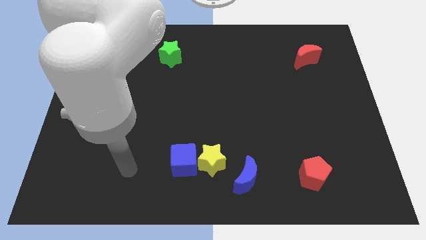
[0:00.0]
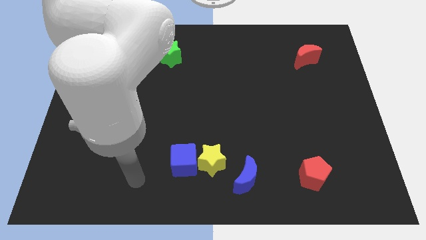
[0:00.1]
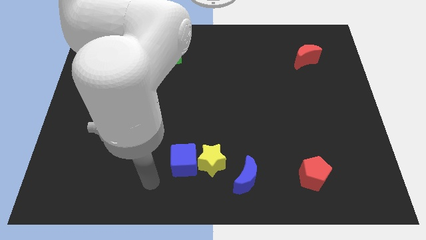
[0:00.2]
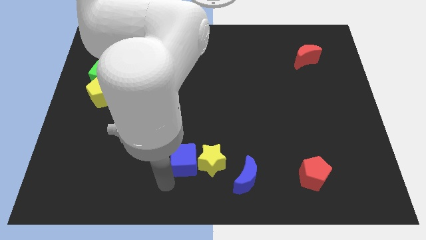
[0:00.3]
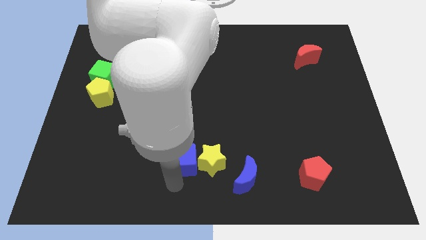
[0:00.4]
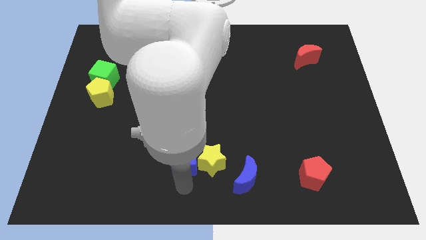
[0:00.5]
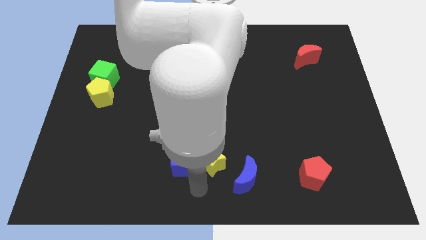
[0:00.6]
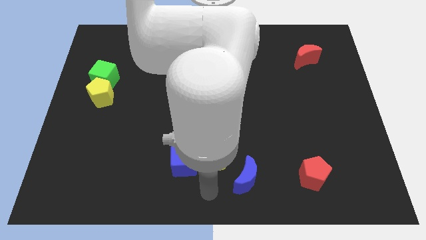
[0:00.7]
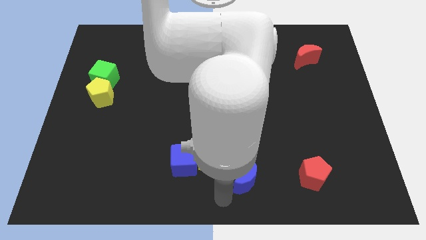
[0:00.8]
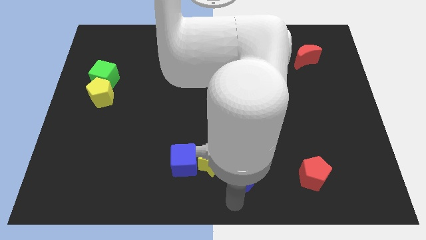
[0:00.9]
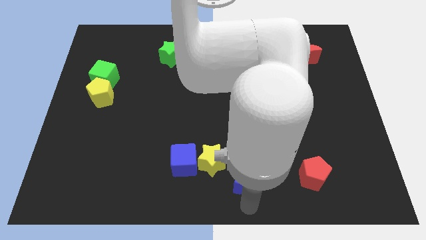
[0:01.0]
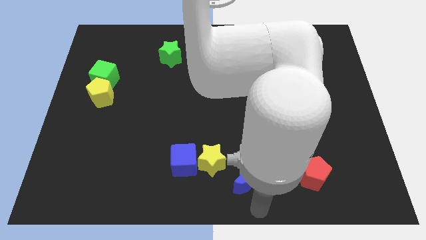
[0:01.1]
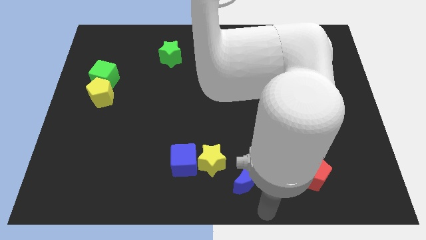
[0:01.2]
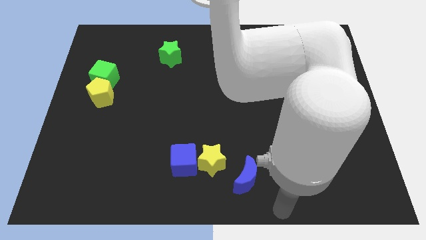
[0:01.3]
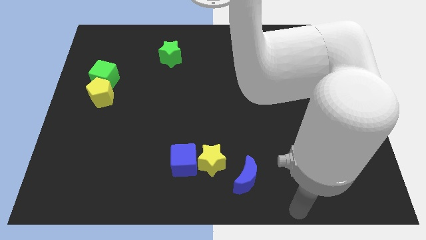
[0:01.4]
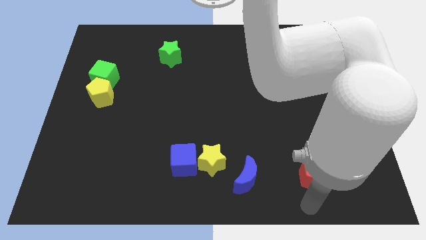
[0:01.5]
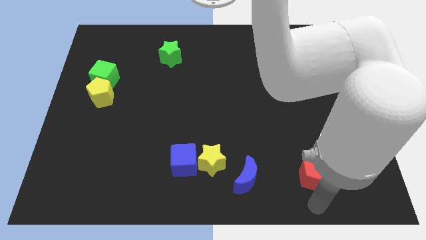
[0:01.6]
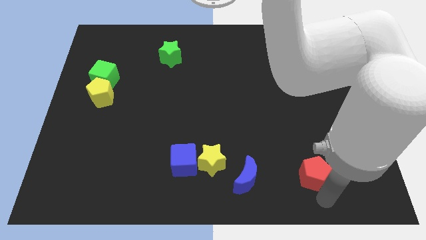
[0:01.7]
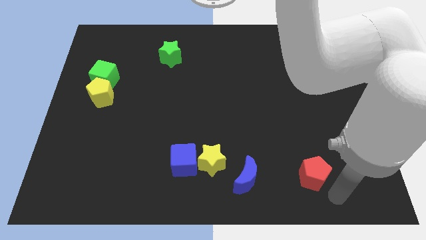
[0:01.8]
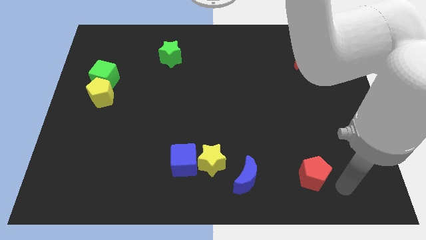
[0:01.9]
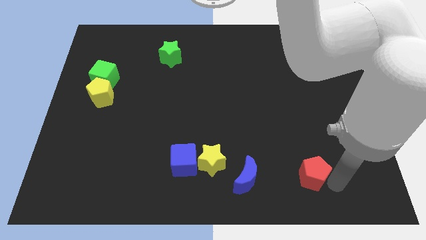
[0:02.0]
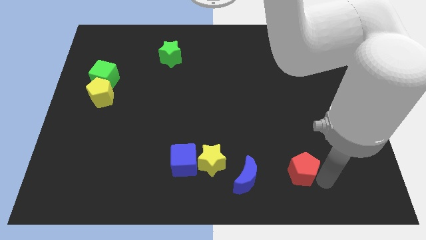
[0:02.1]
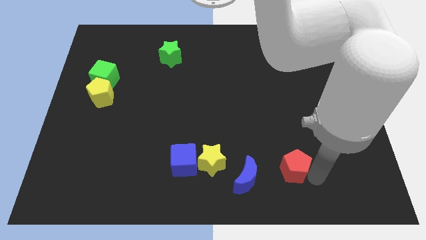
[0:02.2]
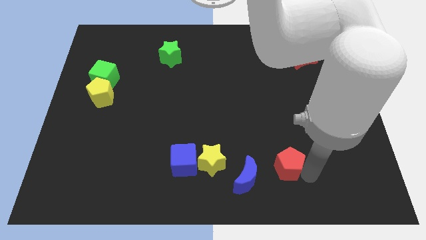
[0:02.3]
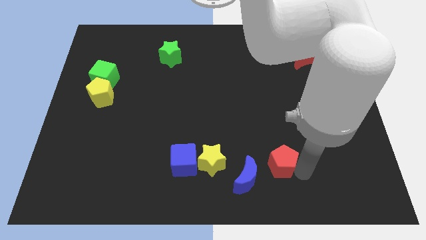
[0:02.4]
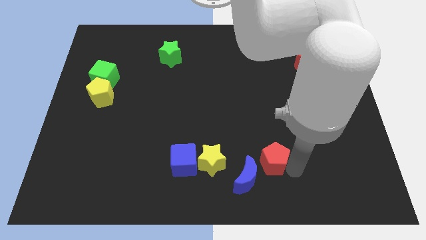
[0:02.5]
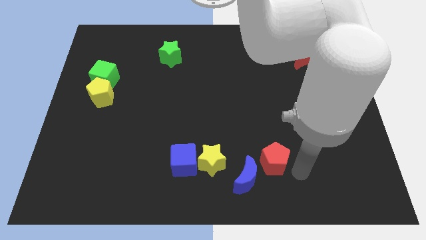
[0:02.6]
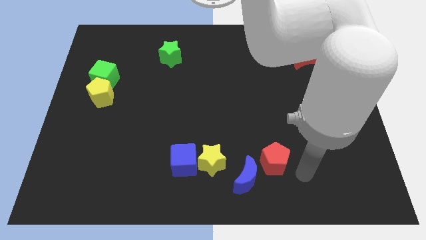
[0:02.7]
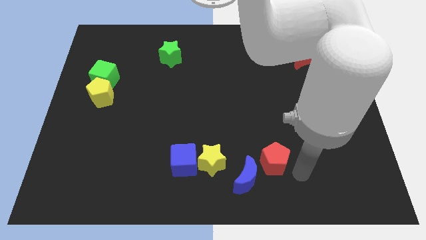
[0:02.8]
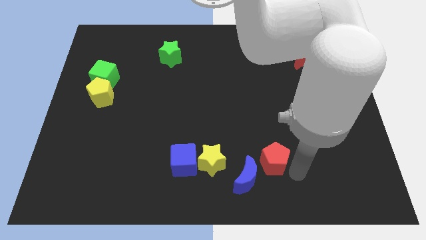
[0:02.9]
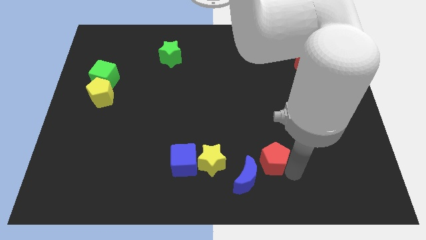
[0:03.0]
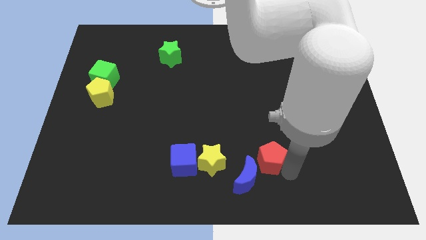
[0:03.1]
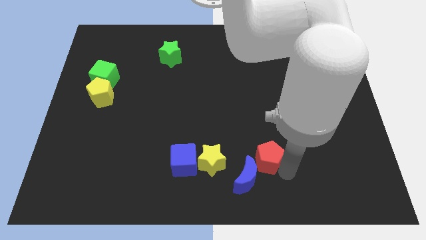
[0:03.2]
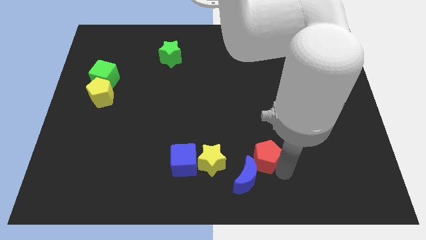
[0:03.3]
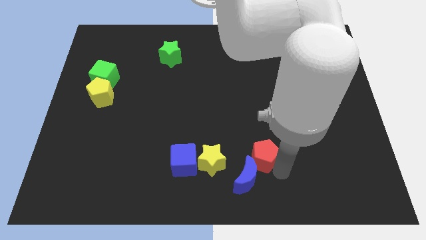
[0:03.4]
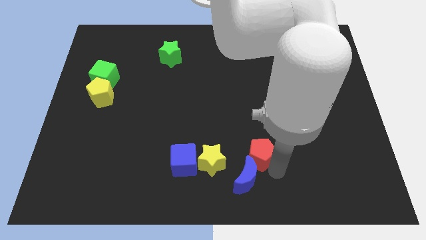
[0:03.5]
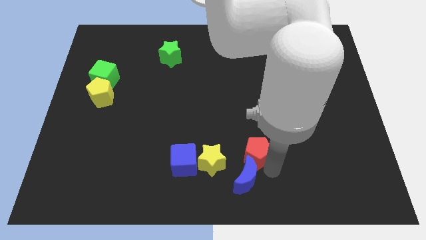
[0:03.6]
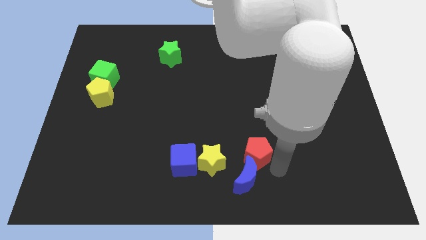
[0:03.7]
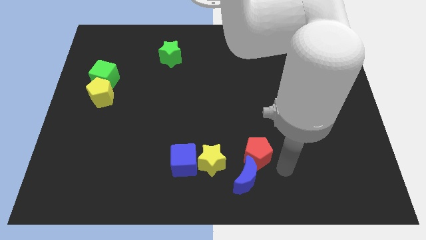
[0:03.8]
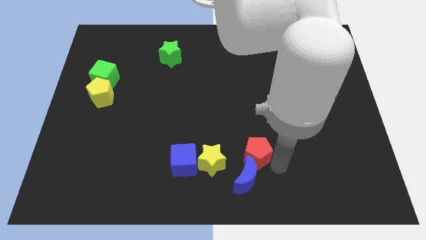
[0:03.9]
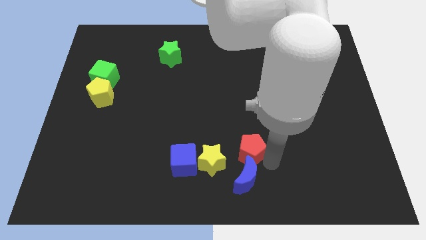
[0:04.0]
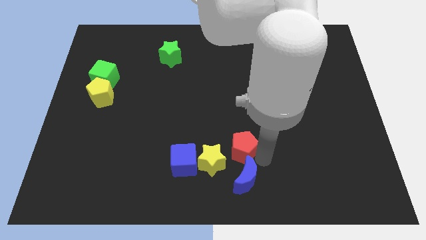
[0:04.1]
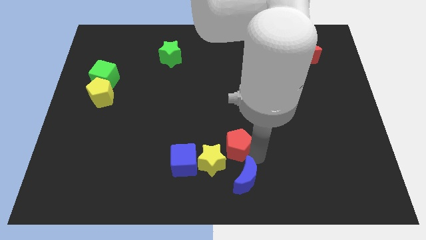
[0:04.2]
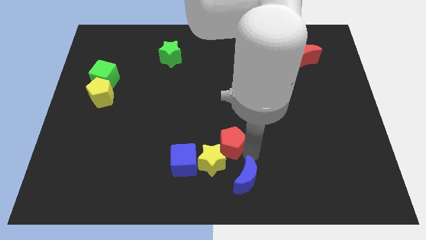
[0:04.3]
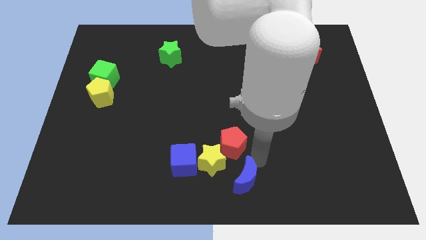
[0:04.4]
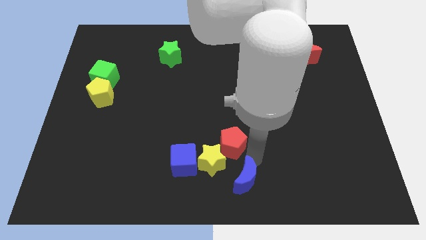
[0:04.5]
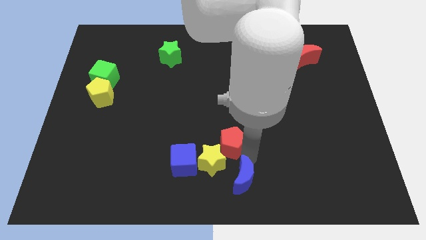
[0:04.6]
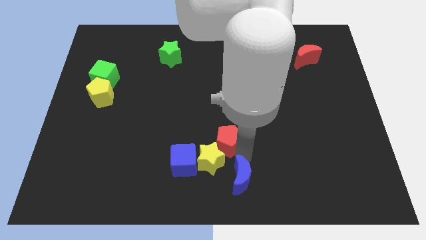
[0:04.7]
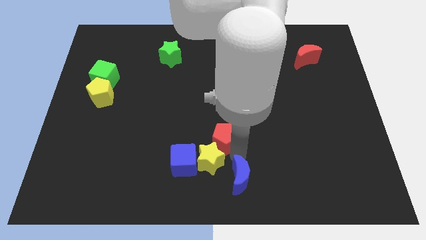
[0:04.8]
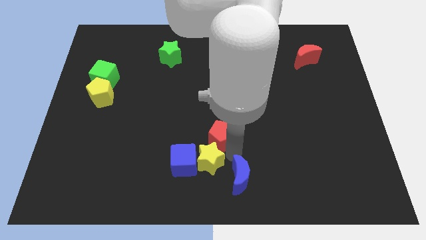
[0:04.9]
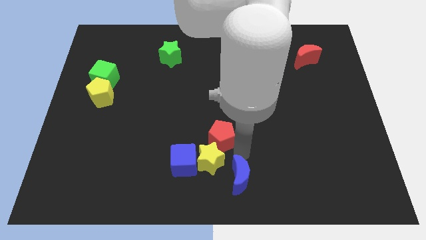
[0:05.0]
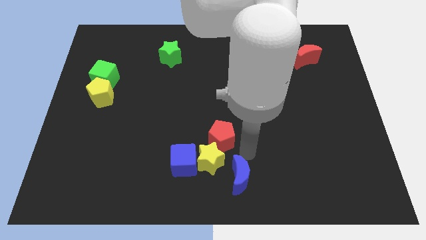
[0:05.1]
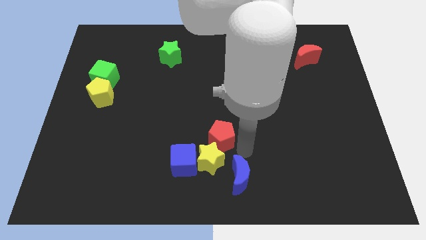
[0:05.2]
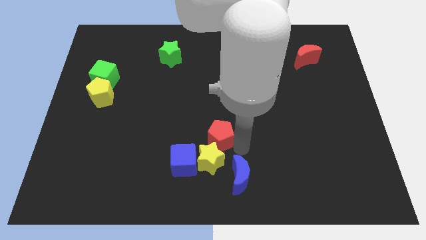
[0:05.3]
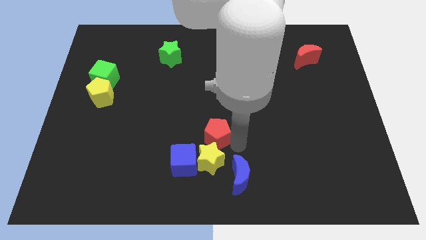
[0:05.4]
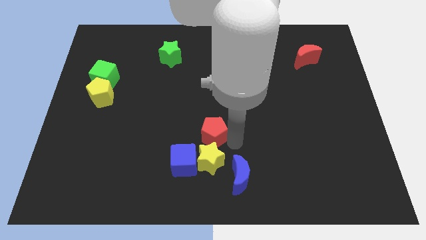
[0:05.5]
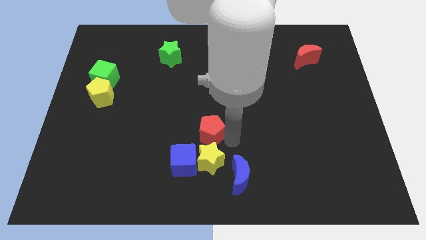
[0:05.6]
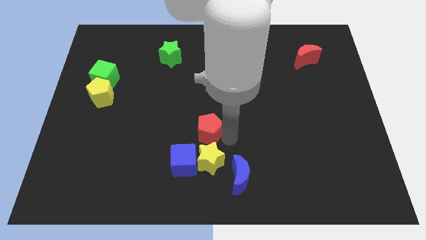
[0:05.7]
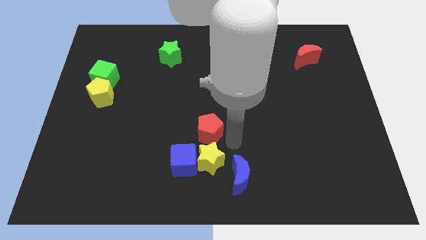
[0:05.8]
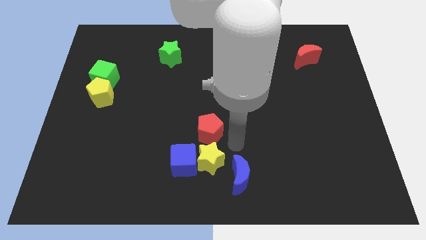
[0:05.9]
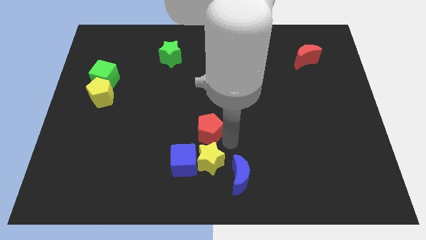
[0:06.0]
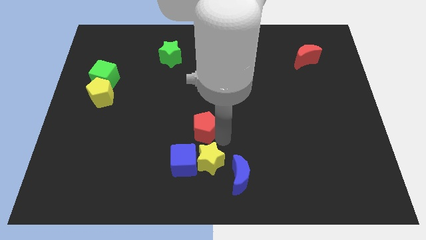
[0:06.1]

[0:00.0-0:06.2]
push the red pentagon above the blue cube

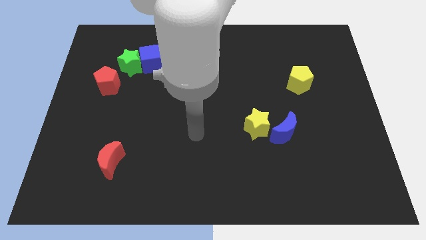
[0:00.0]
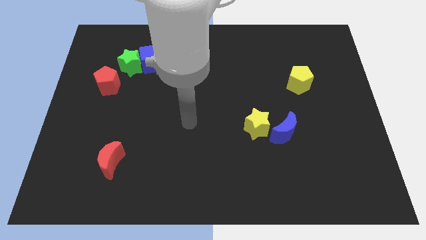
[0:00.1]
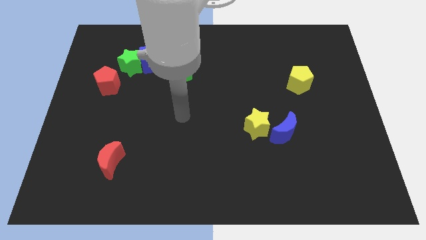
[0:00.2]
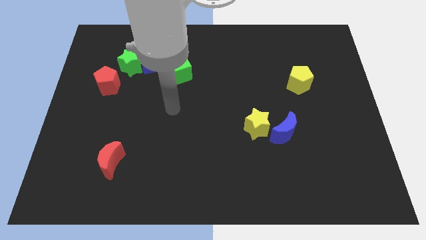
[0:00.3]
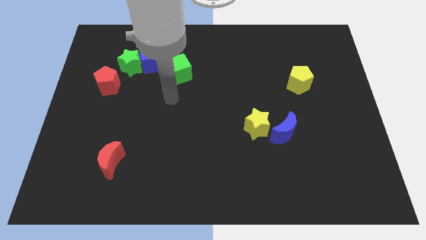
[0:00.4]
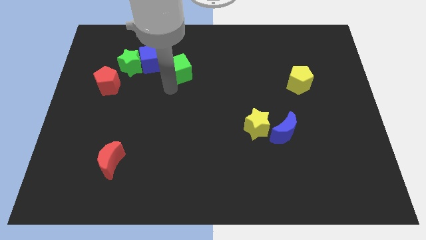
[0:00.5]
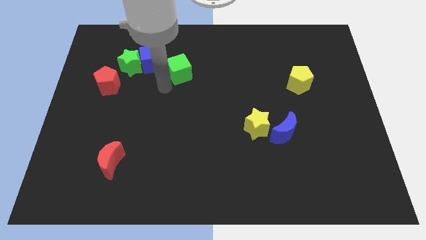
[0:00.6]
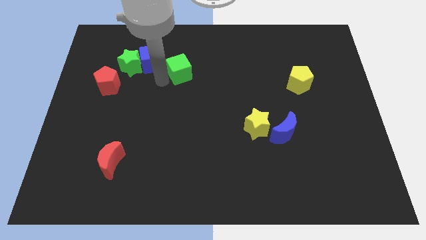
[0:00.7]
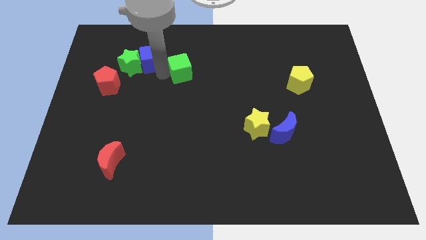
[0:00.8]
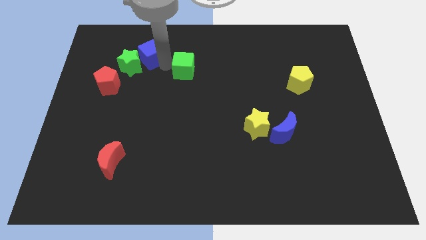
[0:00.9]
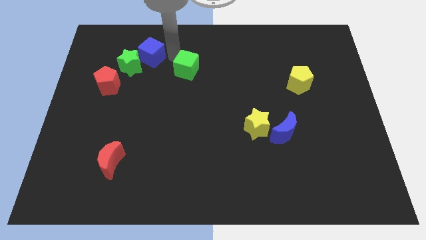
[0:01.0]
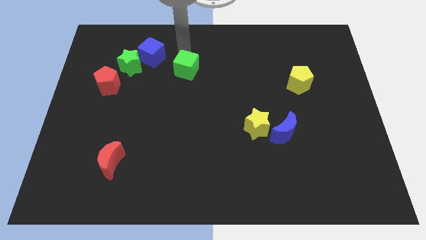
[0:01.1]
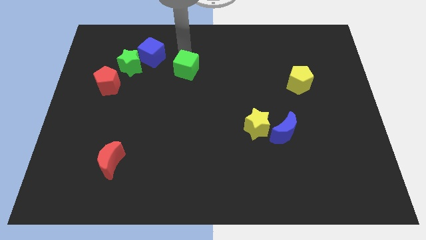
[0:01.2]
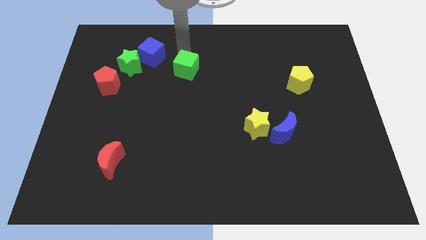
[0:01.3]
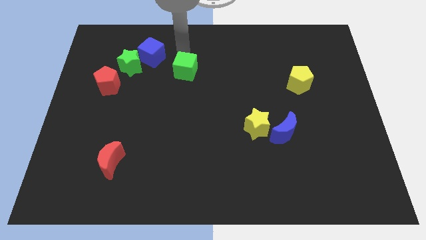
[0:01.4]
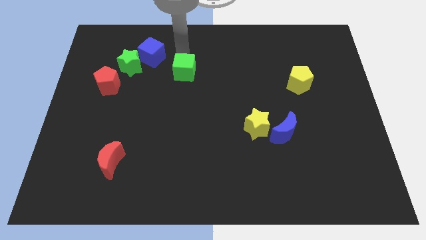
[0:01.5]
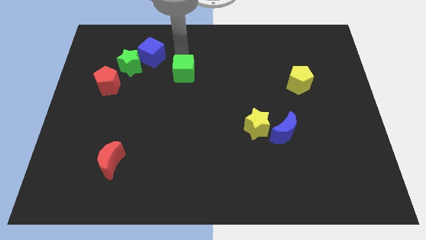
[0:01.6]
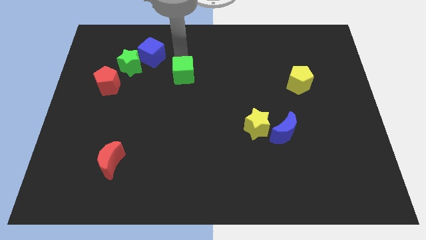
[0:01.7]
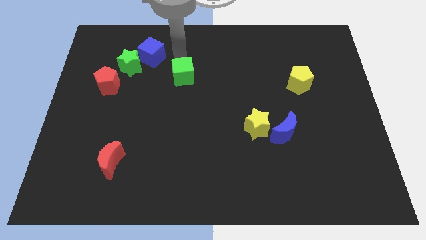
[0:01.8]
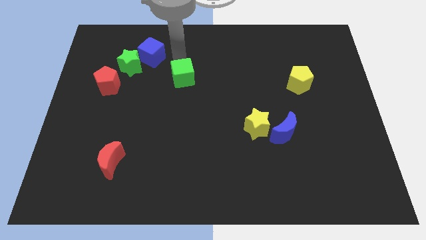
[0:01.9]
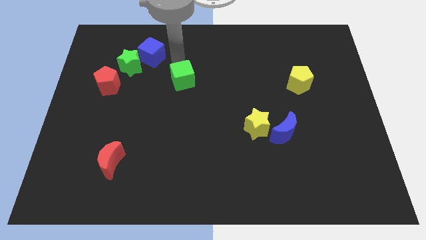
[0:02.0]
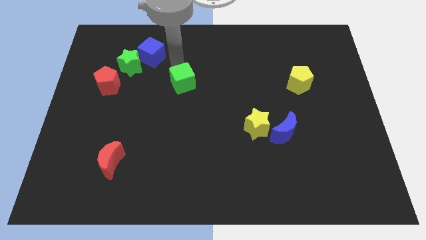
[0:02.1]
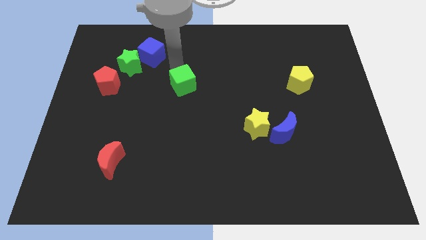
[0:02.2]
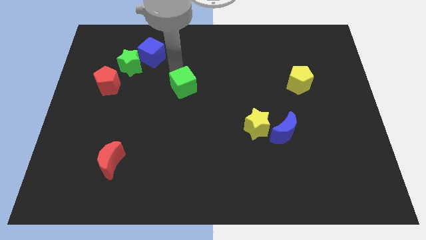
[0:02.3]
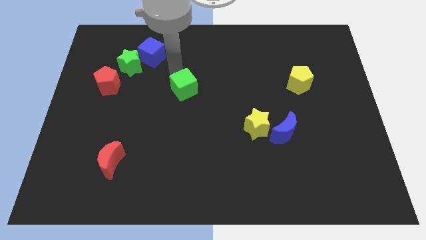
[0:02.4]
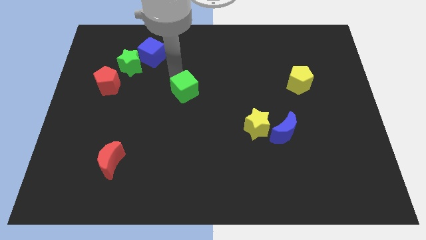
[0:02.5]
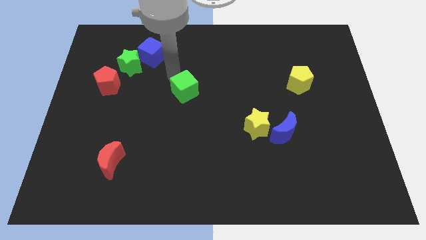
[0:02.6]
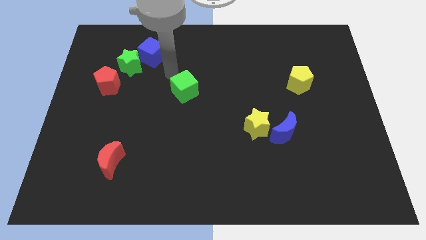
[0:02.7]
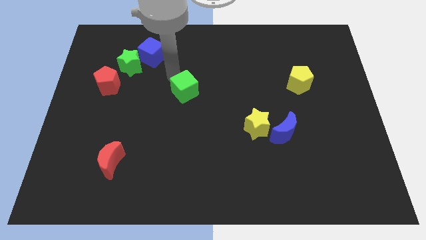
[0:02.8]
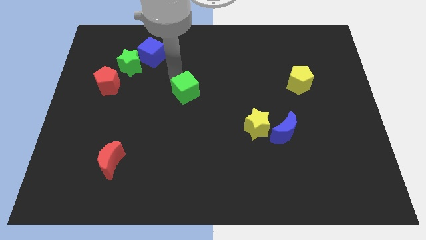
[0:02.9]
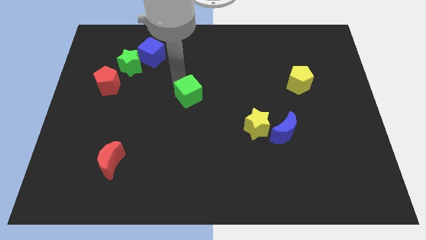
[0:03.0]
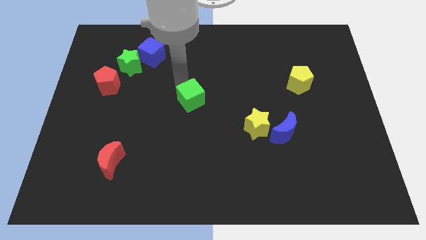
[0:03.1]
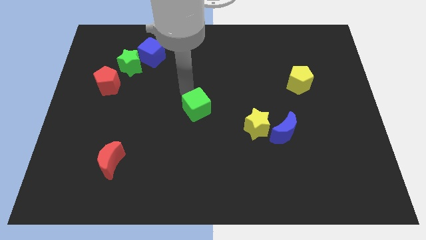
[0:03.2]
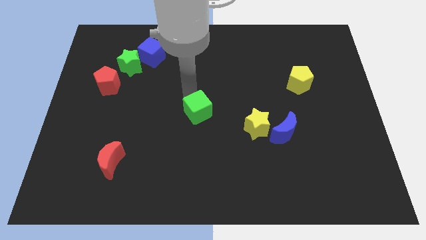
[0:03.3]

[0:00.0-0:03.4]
push the green cube just left of the yellow star
